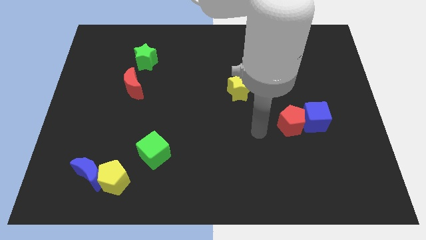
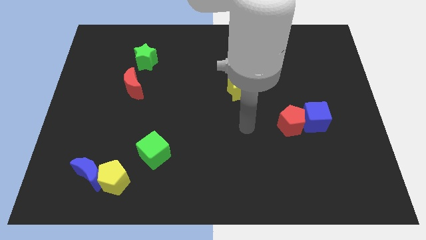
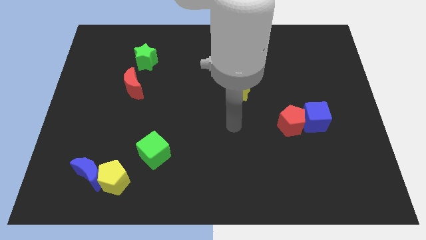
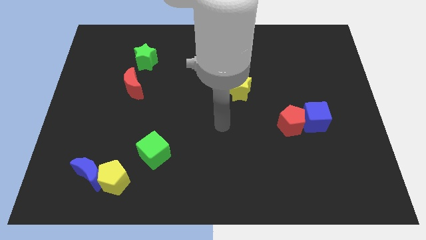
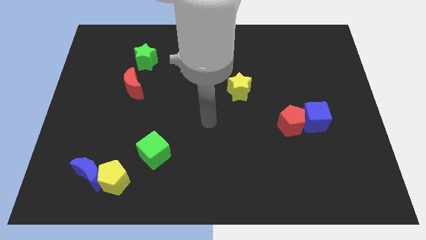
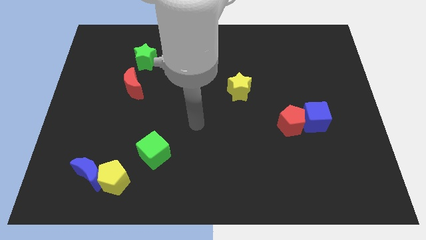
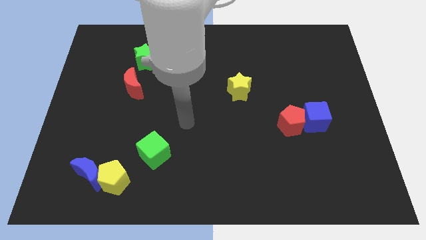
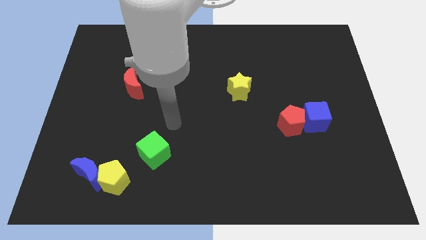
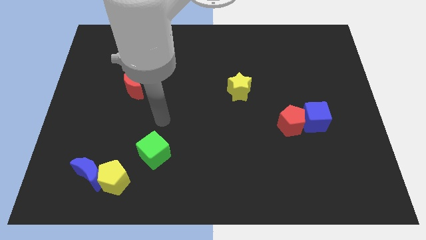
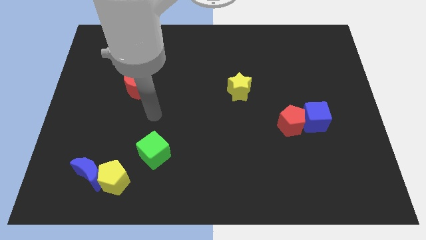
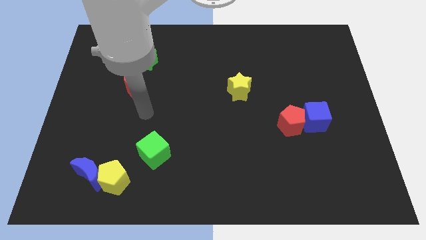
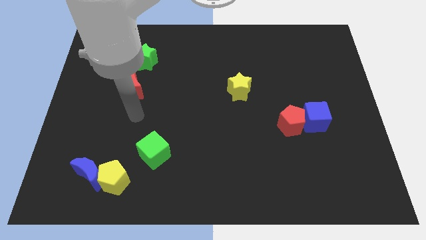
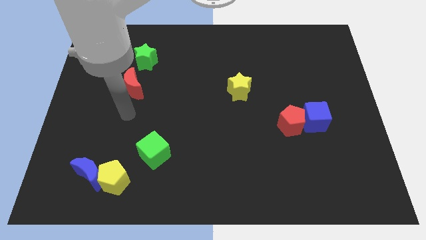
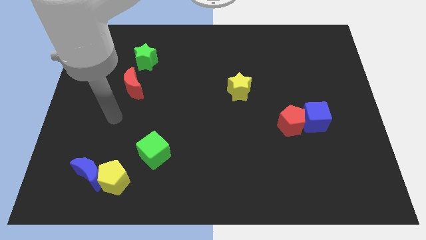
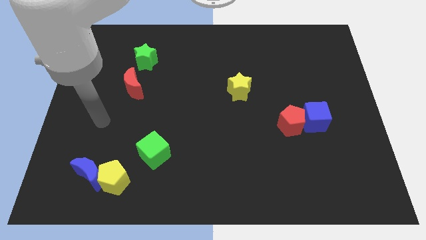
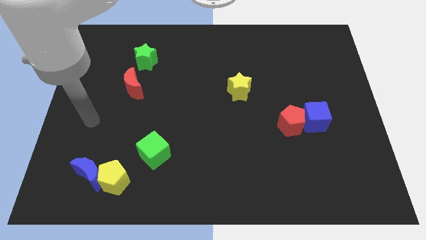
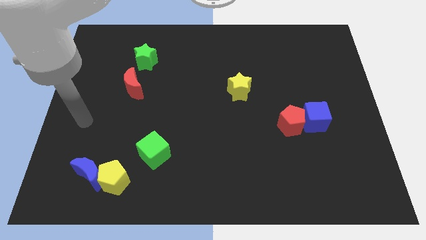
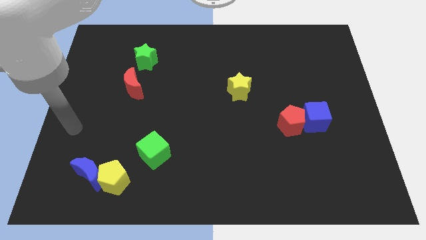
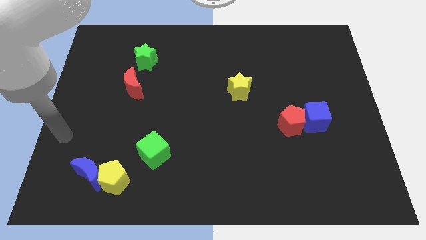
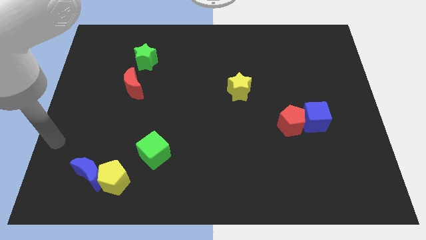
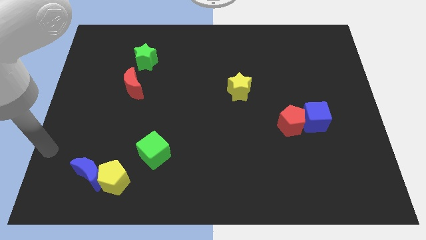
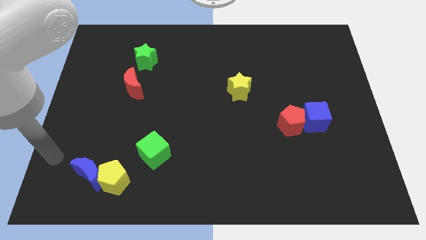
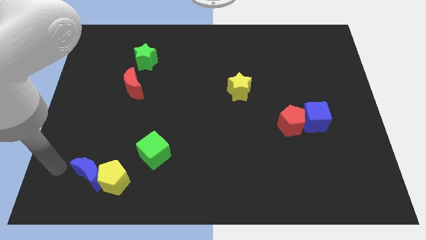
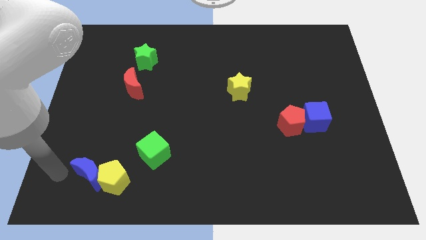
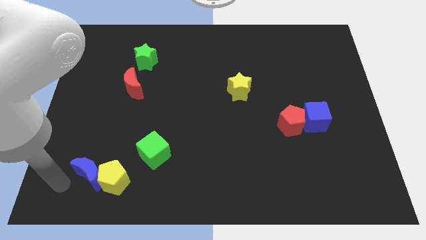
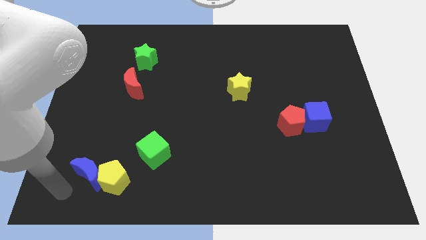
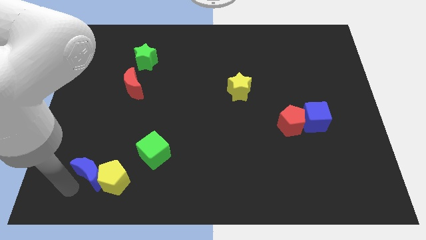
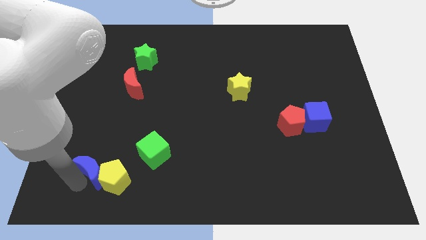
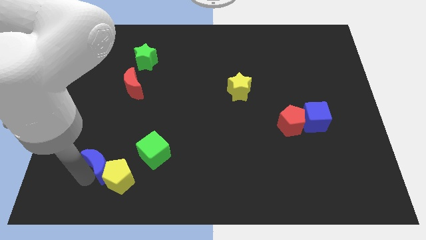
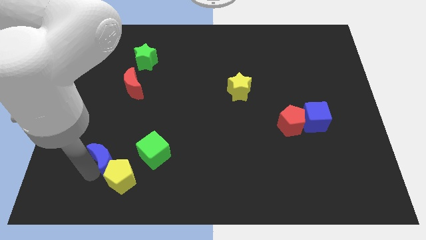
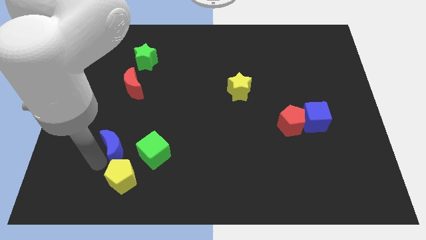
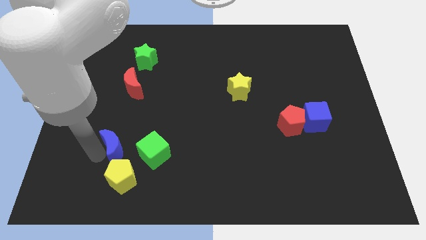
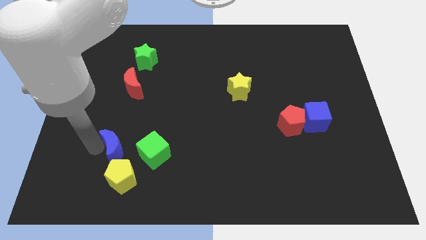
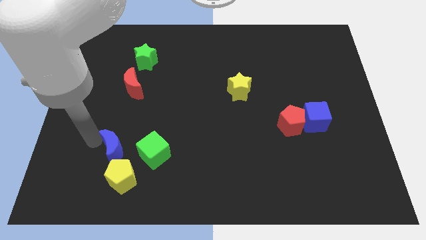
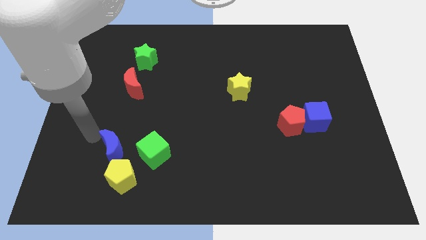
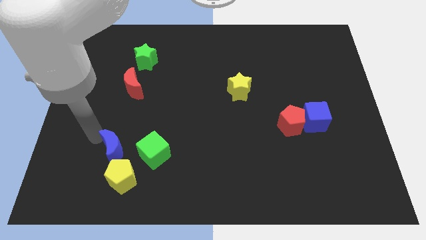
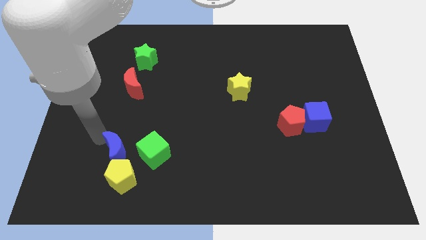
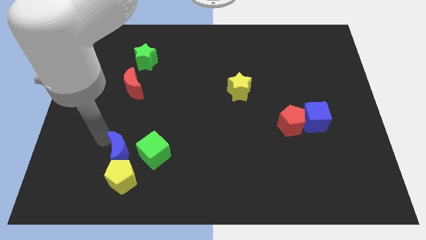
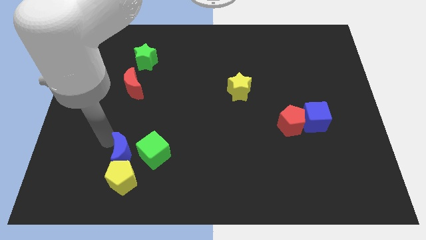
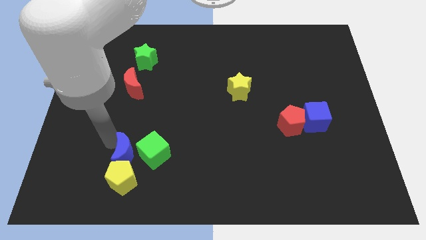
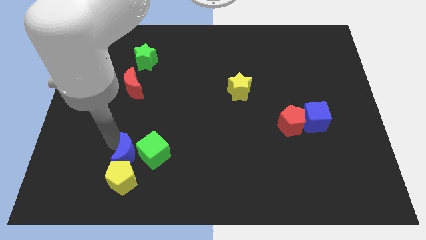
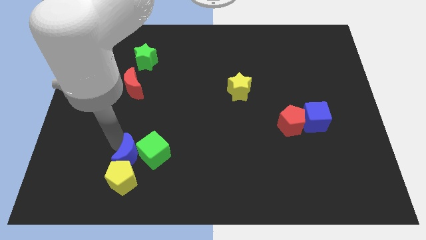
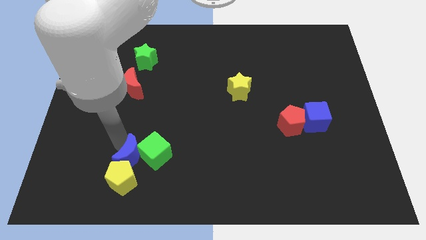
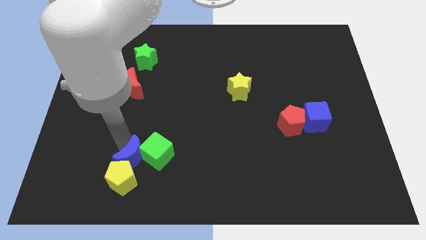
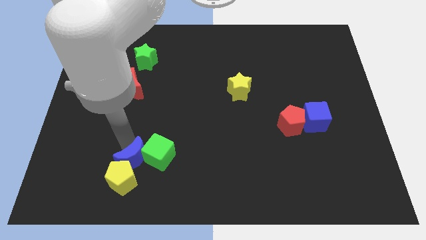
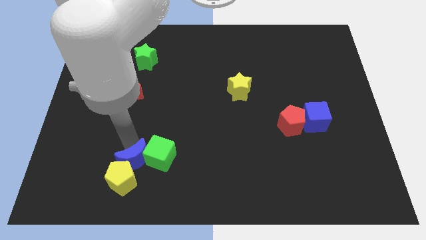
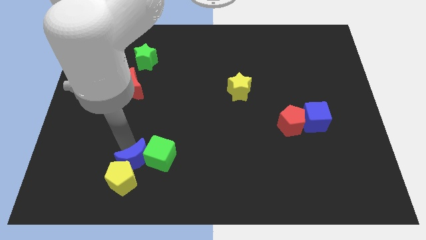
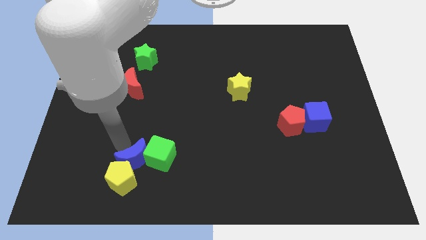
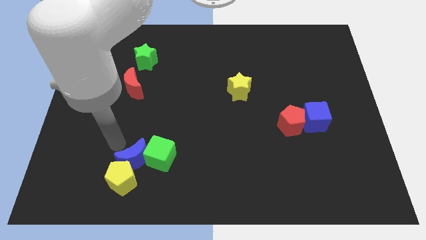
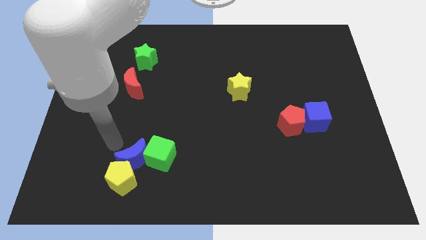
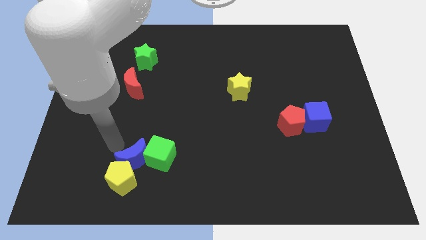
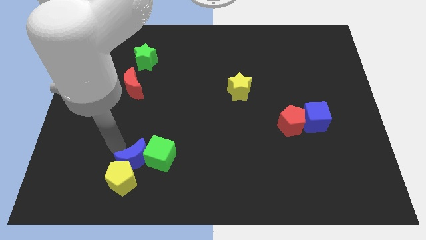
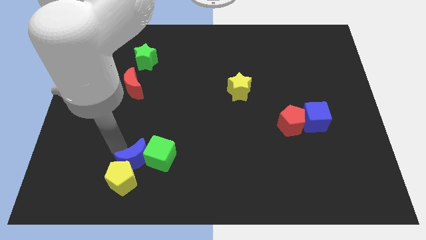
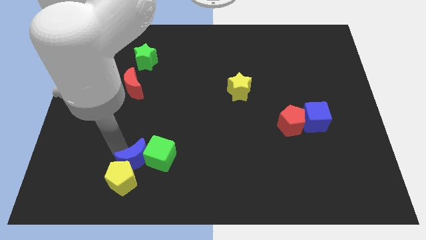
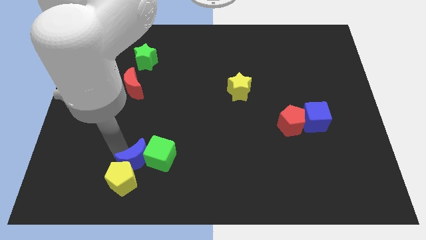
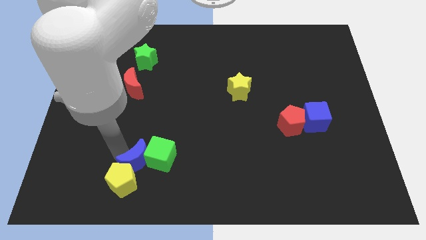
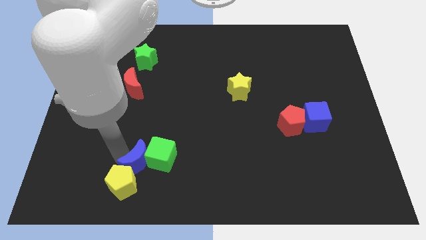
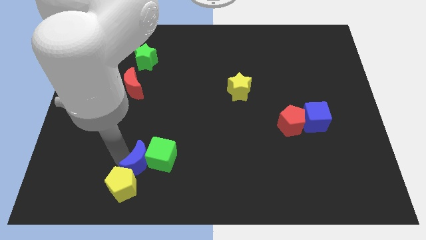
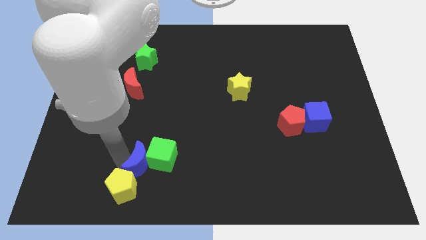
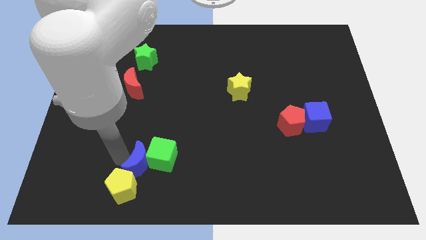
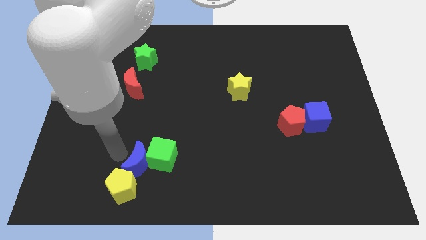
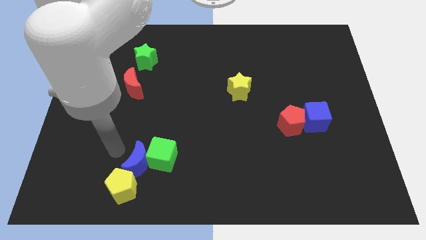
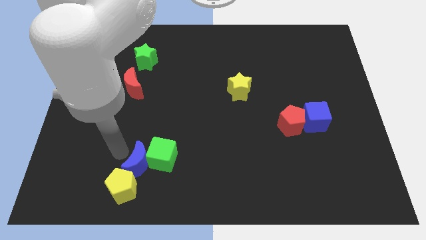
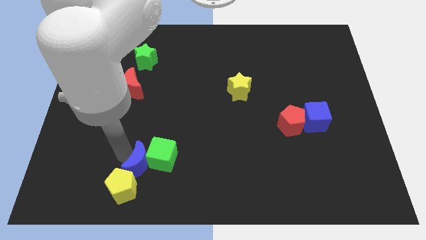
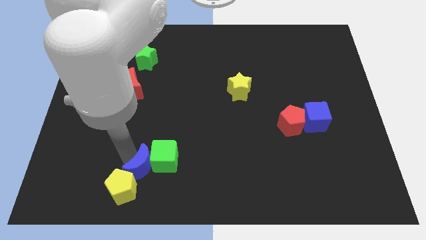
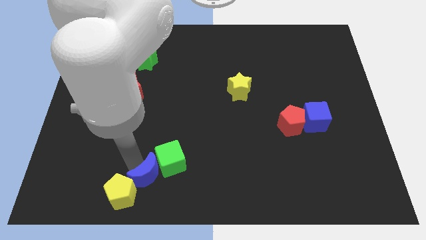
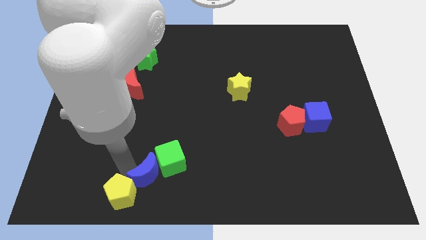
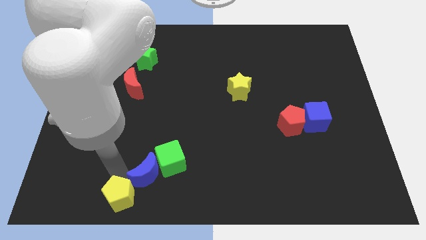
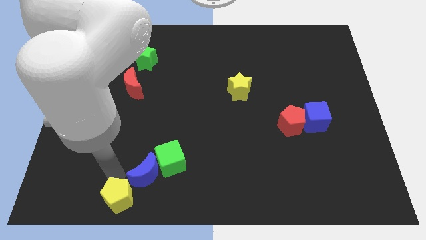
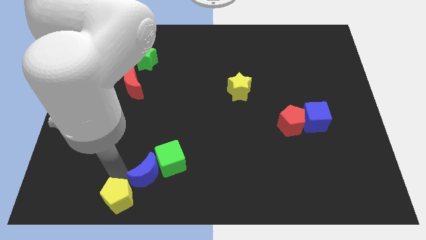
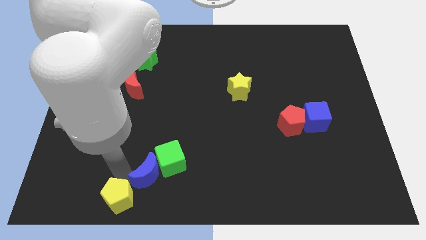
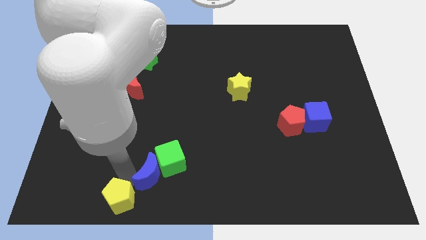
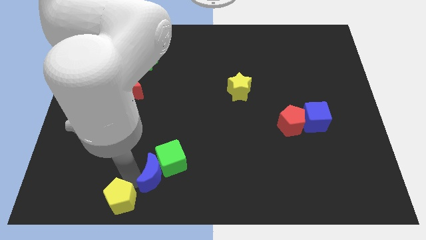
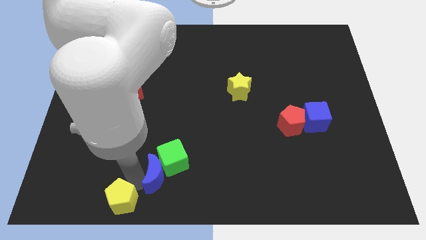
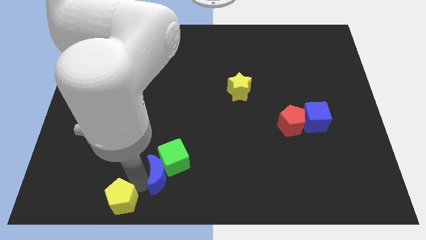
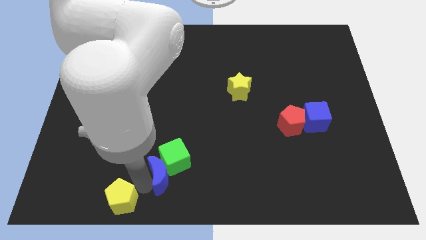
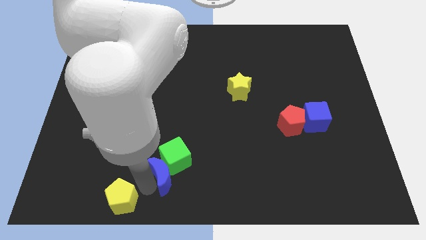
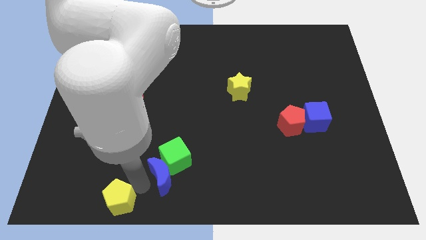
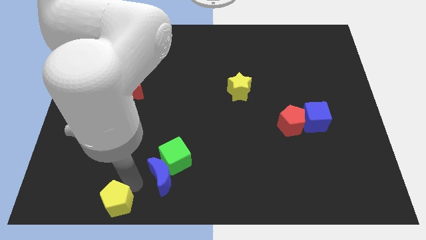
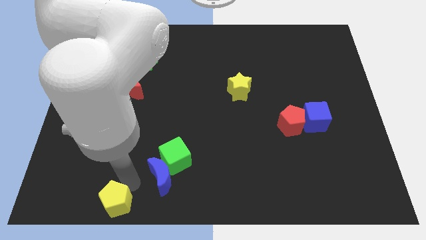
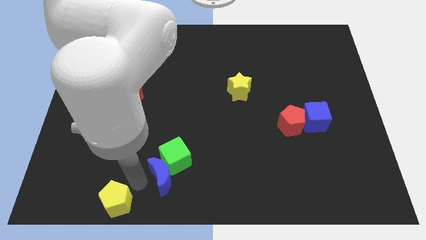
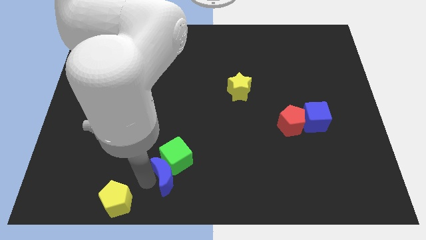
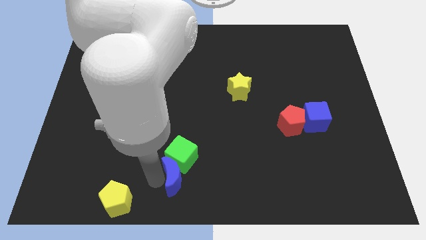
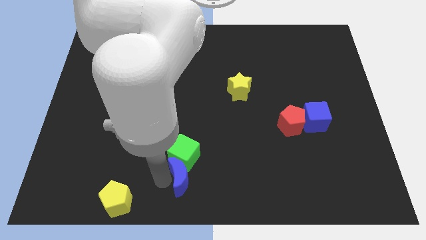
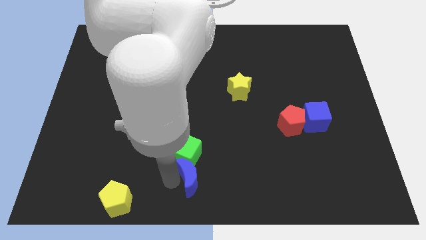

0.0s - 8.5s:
slide the blue moon to the right
